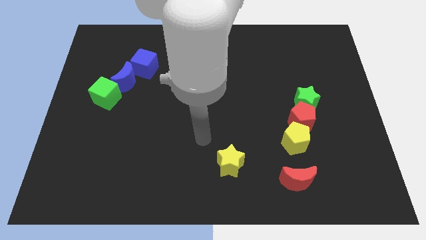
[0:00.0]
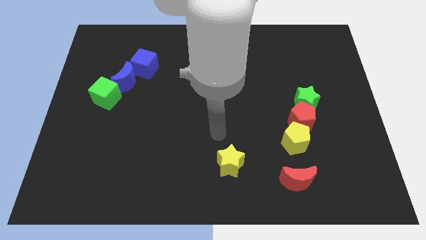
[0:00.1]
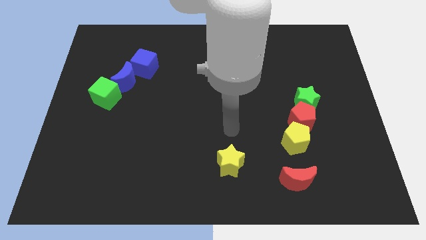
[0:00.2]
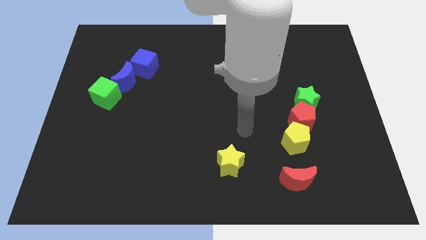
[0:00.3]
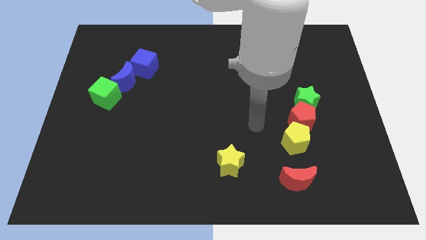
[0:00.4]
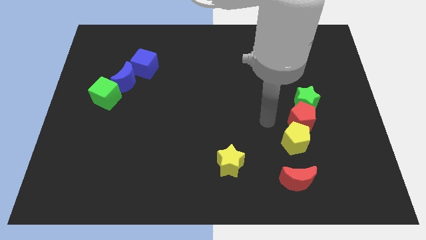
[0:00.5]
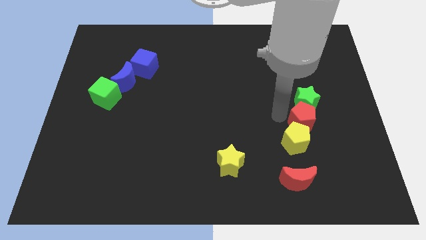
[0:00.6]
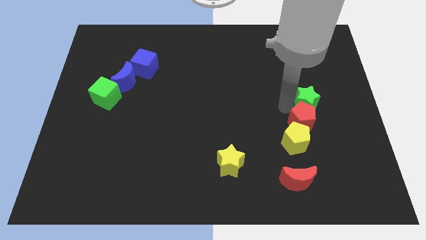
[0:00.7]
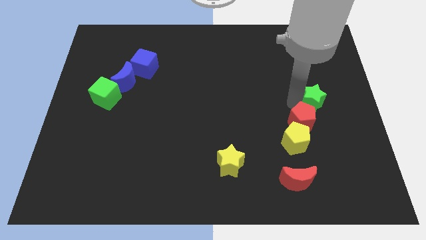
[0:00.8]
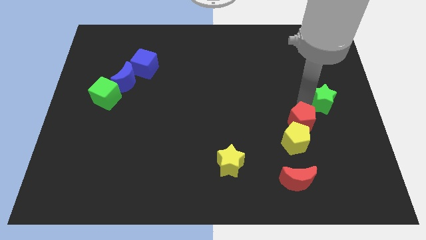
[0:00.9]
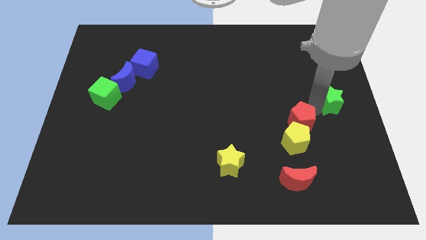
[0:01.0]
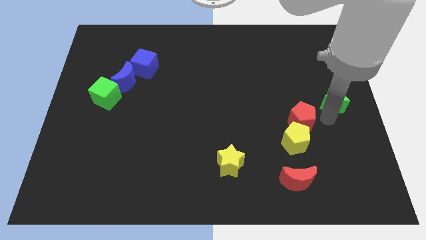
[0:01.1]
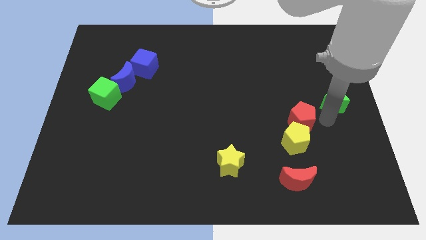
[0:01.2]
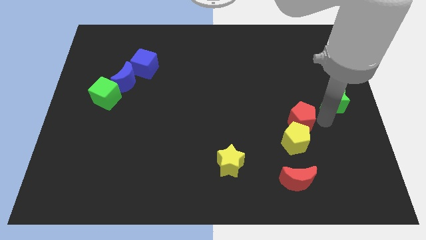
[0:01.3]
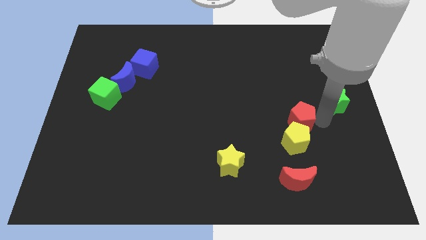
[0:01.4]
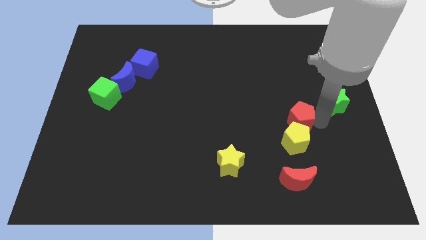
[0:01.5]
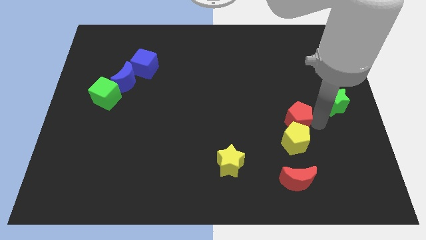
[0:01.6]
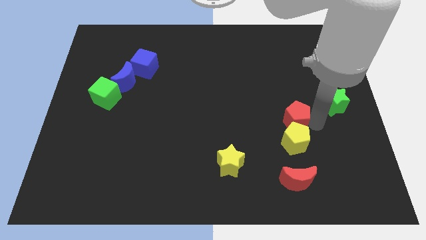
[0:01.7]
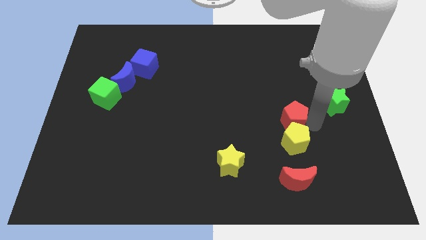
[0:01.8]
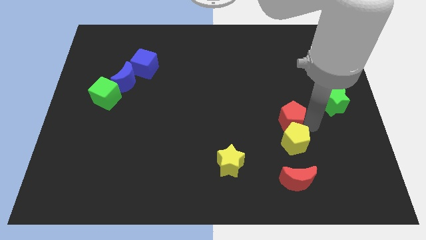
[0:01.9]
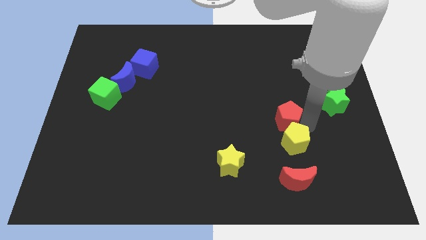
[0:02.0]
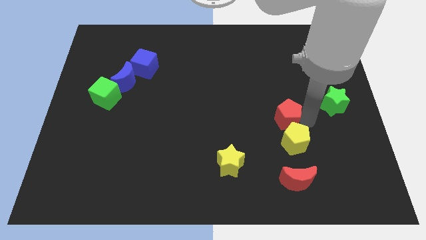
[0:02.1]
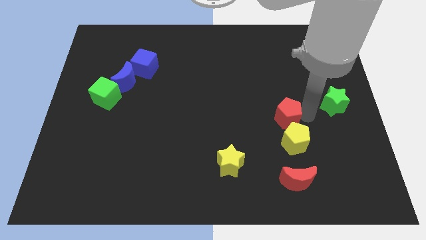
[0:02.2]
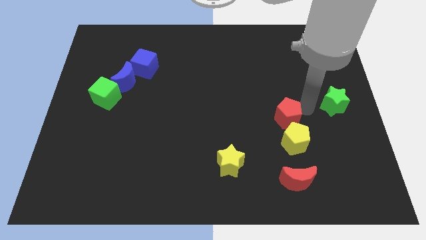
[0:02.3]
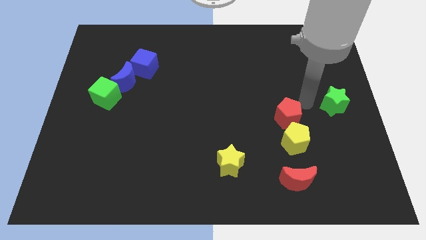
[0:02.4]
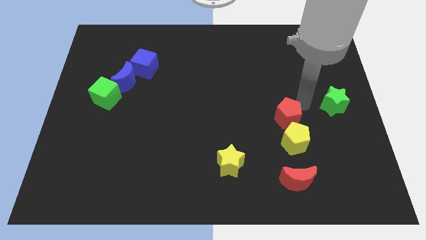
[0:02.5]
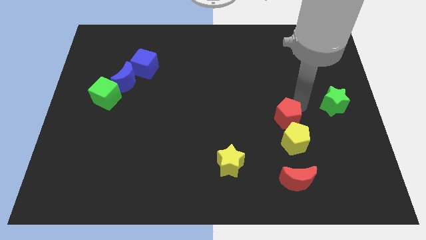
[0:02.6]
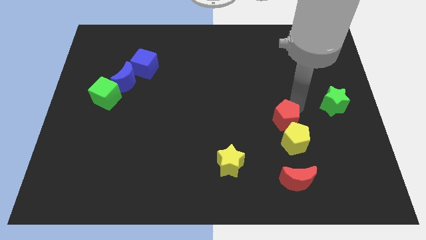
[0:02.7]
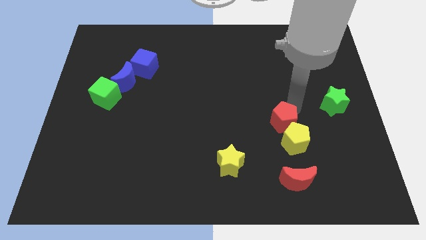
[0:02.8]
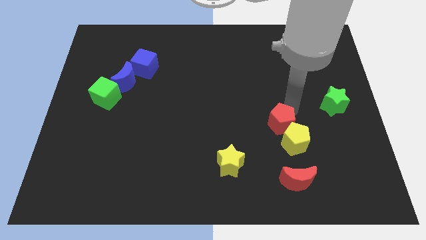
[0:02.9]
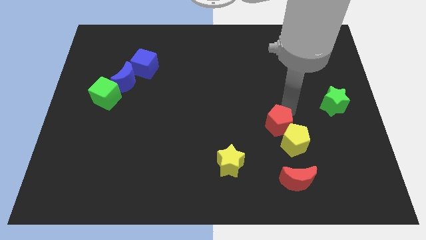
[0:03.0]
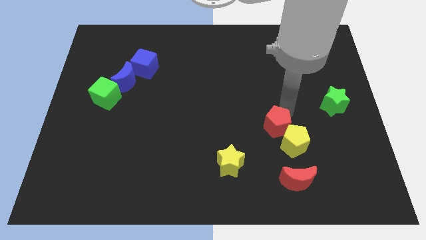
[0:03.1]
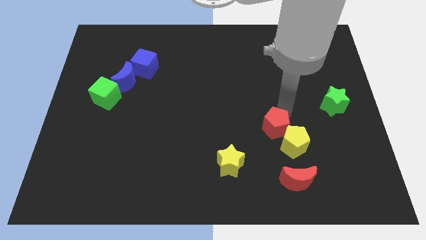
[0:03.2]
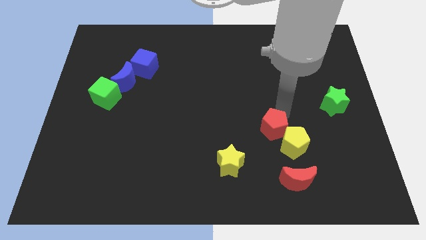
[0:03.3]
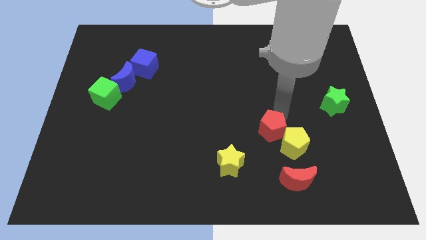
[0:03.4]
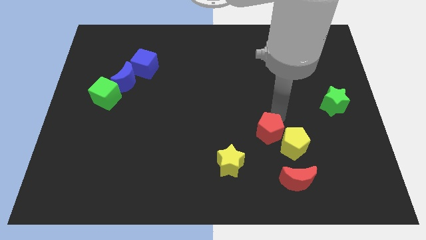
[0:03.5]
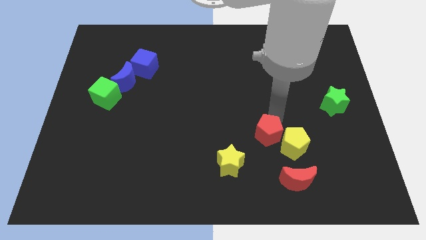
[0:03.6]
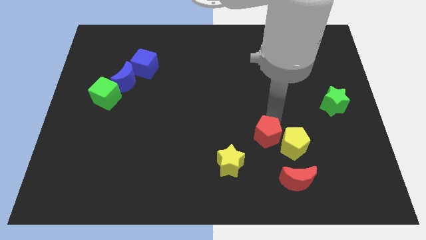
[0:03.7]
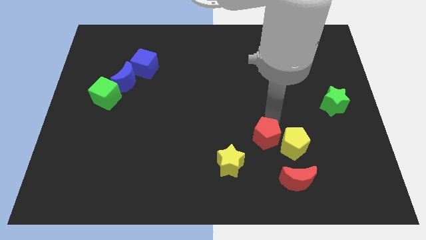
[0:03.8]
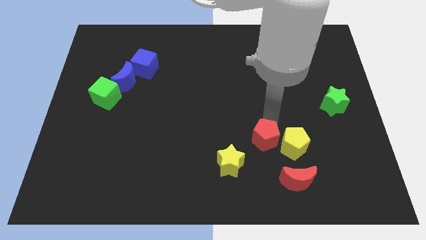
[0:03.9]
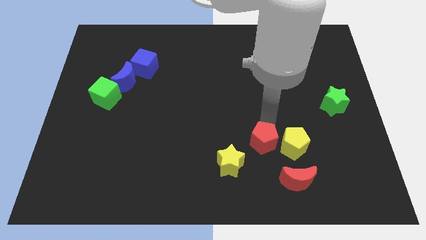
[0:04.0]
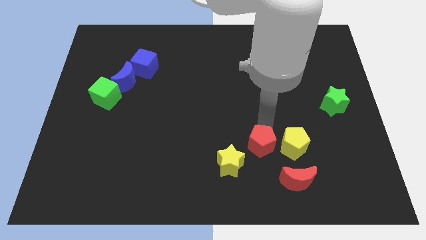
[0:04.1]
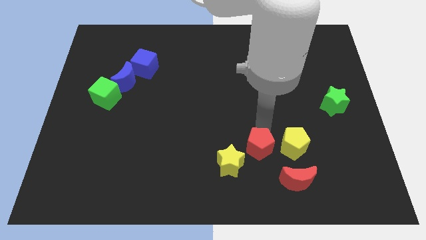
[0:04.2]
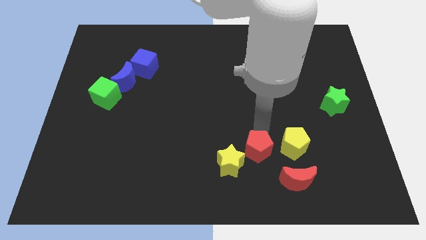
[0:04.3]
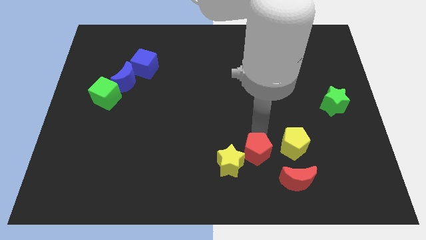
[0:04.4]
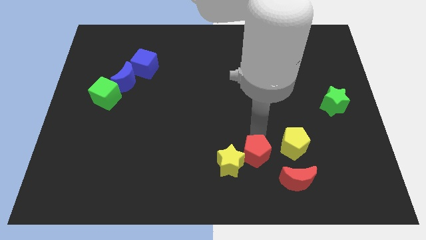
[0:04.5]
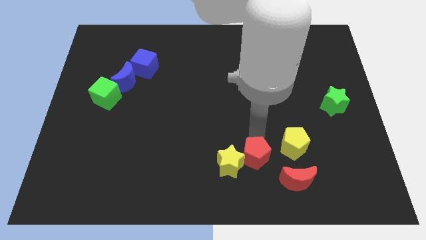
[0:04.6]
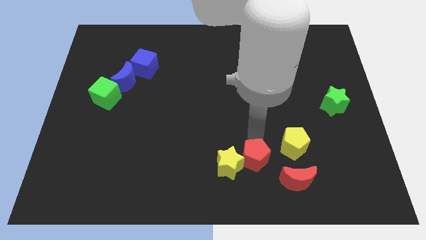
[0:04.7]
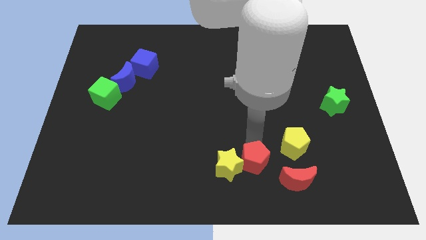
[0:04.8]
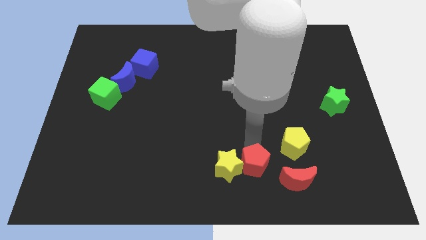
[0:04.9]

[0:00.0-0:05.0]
push the red pentagon to the bottom

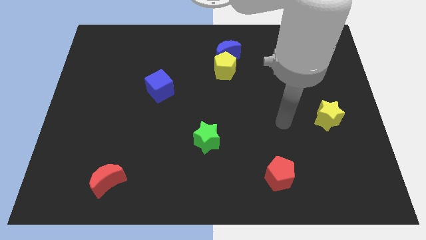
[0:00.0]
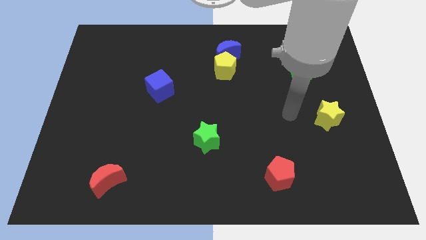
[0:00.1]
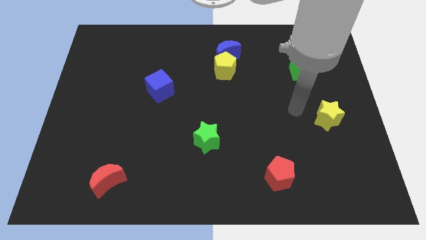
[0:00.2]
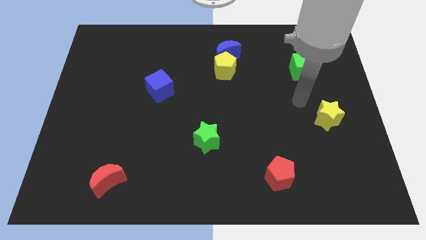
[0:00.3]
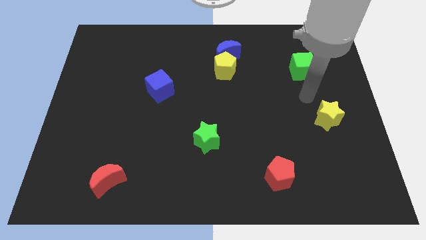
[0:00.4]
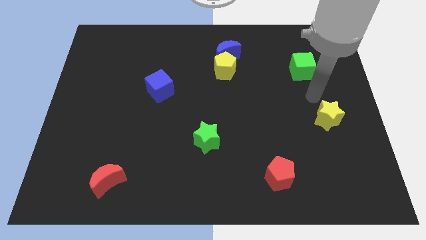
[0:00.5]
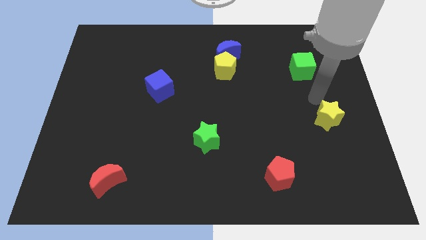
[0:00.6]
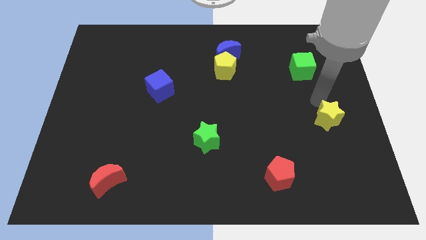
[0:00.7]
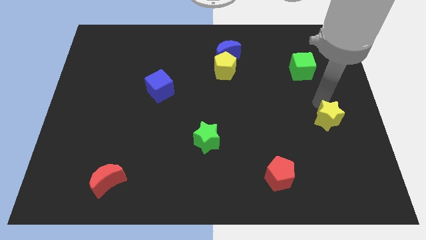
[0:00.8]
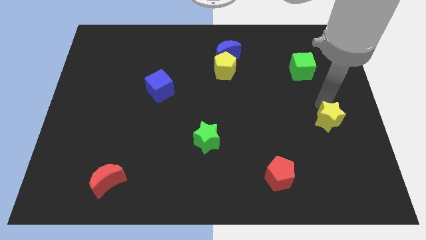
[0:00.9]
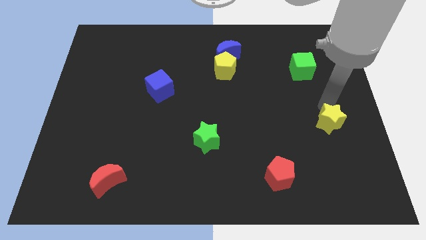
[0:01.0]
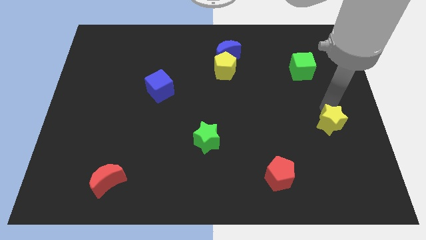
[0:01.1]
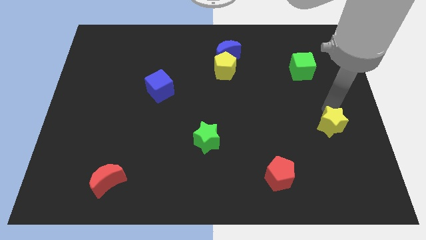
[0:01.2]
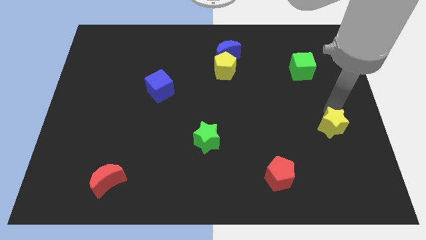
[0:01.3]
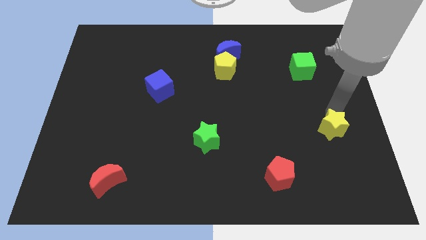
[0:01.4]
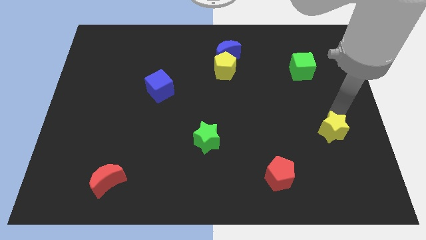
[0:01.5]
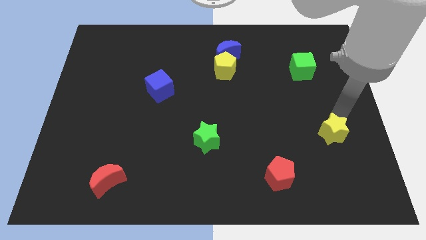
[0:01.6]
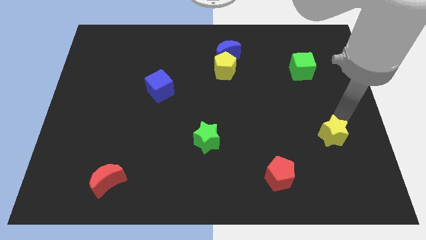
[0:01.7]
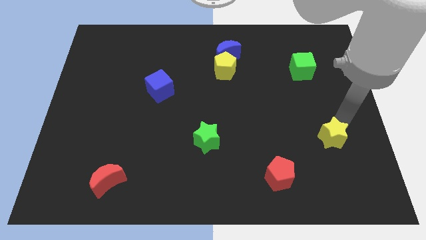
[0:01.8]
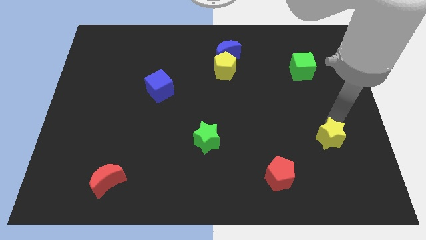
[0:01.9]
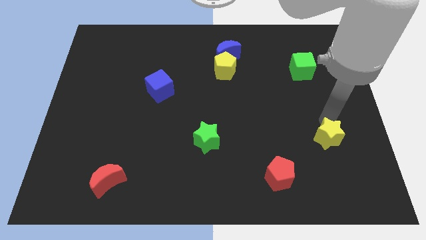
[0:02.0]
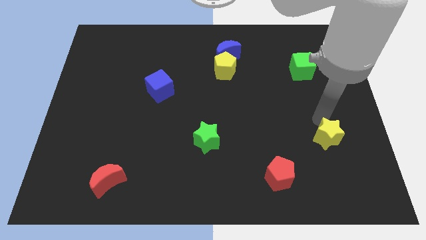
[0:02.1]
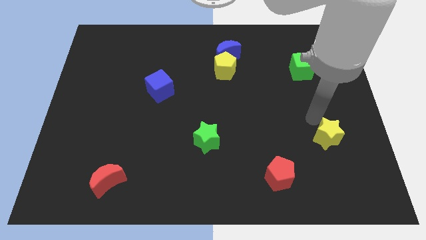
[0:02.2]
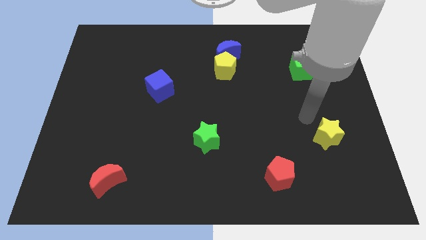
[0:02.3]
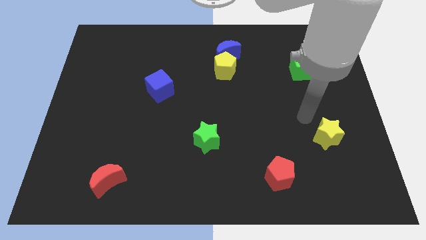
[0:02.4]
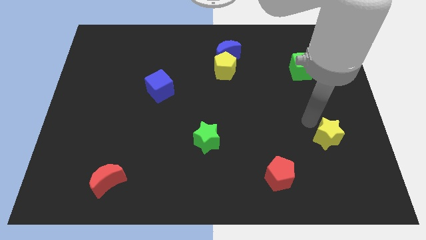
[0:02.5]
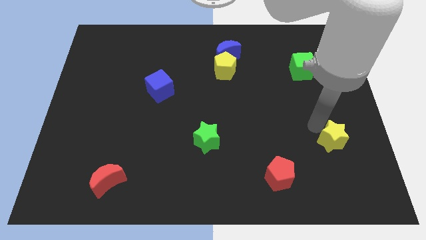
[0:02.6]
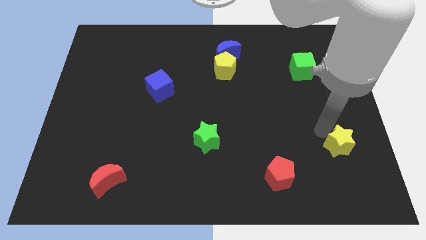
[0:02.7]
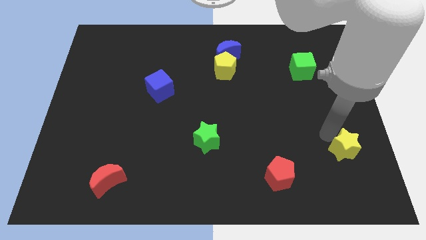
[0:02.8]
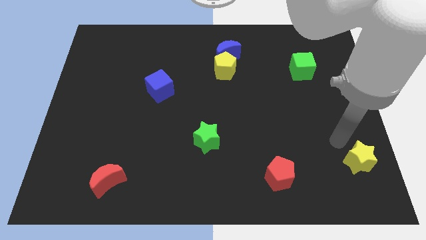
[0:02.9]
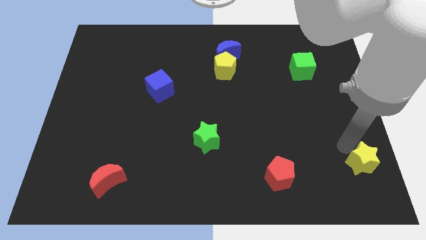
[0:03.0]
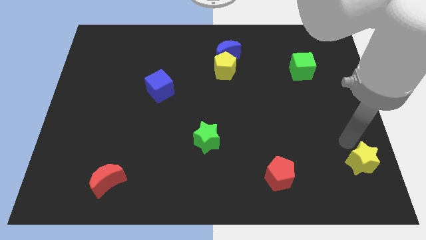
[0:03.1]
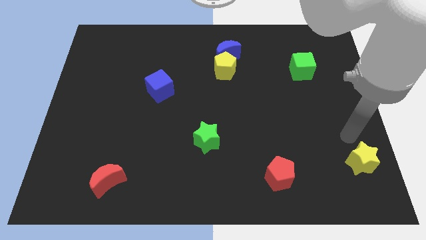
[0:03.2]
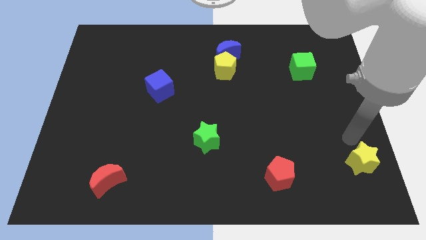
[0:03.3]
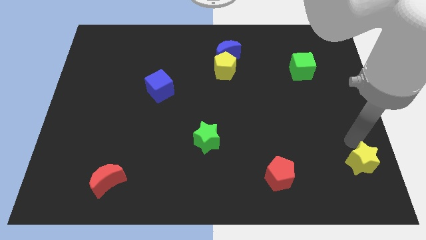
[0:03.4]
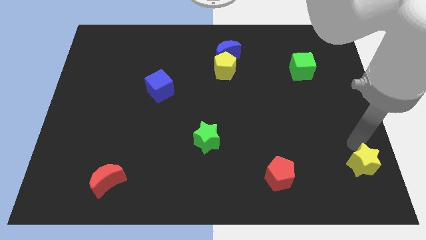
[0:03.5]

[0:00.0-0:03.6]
put the yellow star to the lower right corner
